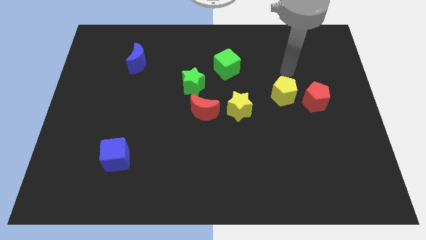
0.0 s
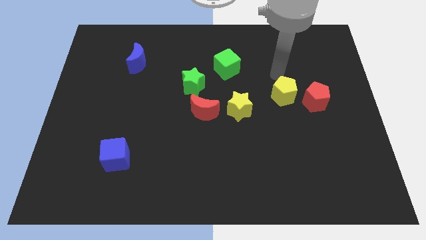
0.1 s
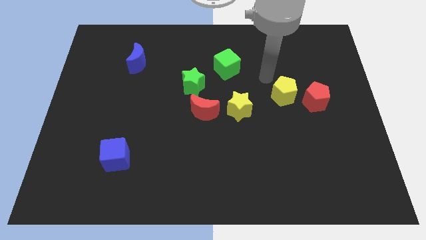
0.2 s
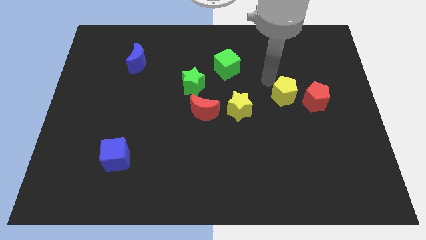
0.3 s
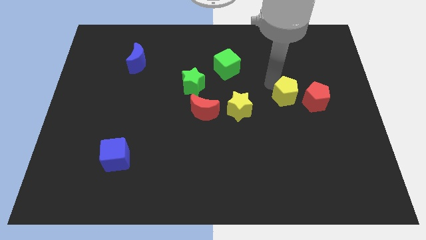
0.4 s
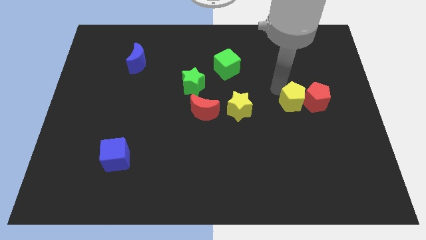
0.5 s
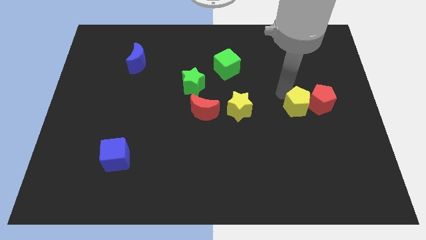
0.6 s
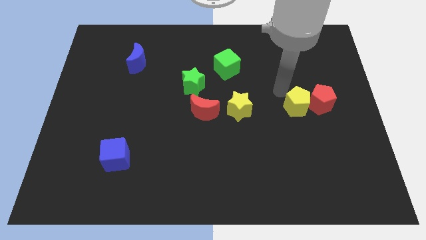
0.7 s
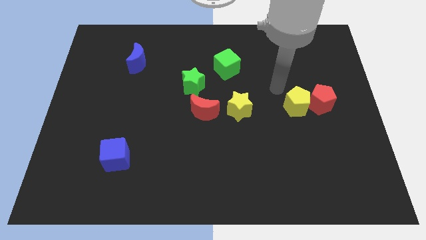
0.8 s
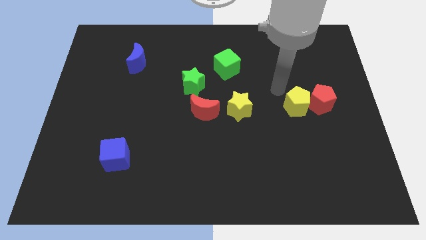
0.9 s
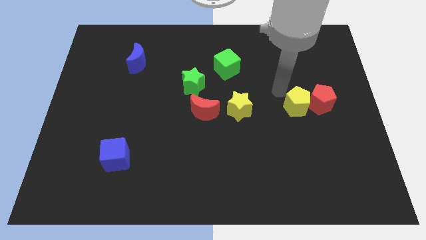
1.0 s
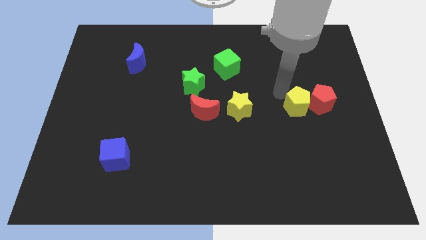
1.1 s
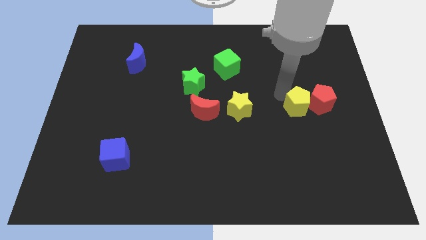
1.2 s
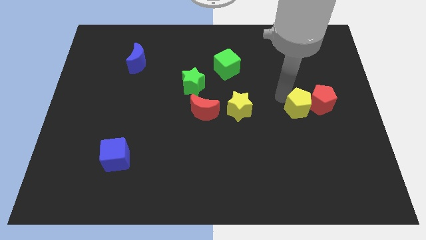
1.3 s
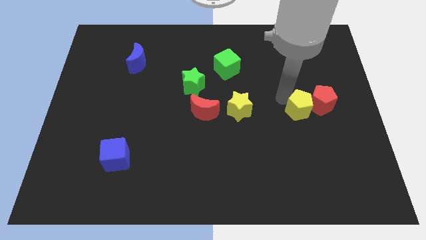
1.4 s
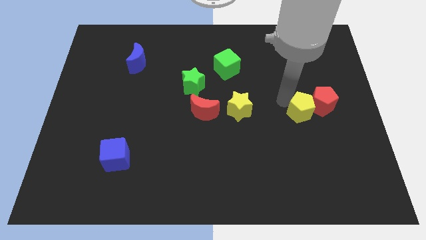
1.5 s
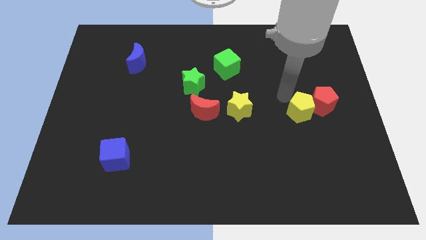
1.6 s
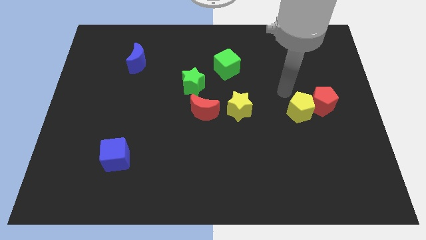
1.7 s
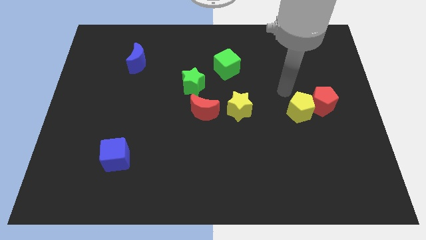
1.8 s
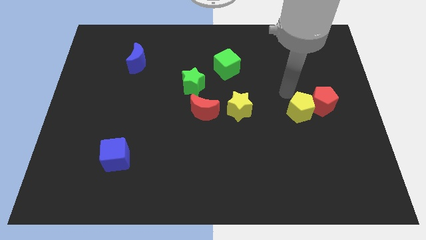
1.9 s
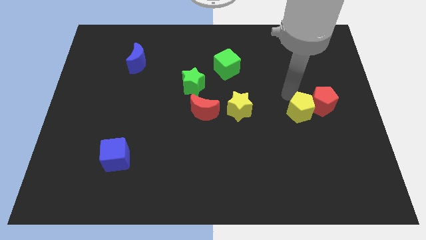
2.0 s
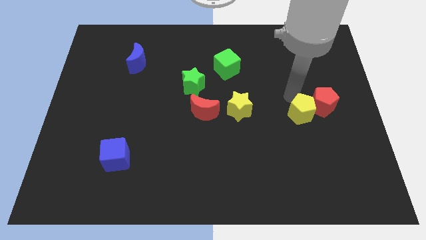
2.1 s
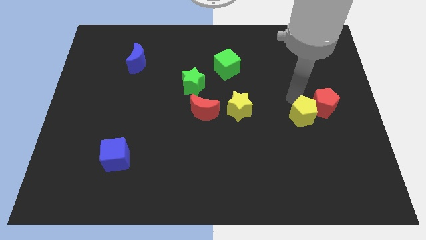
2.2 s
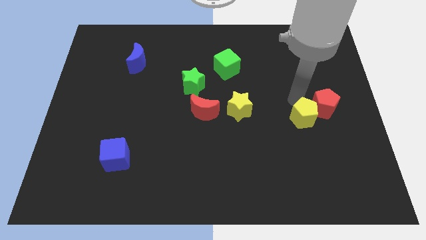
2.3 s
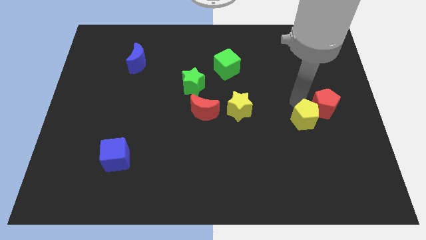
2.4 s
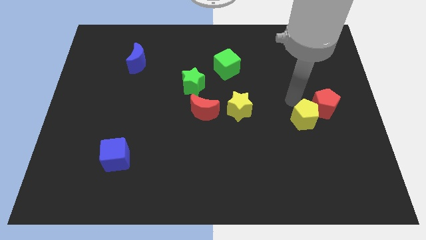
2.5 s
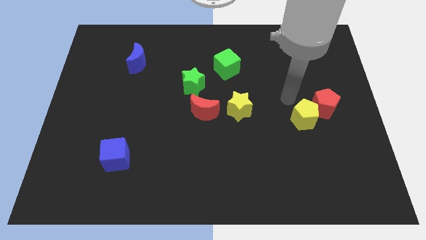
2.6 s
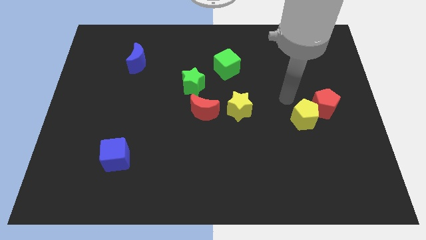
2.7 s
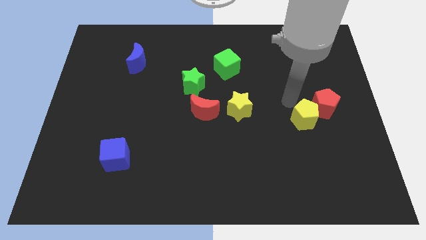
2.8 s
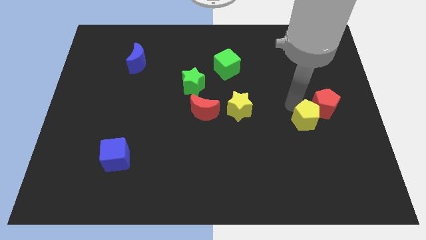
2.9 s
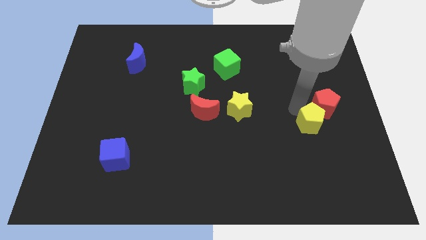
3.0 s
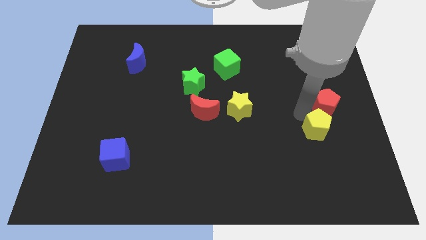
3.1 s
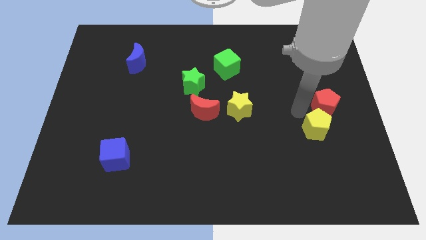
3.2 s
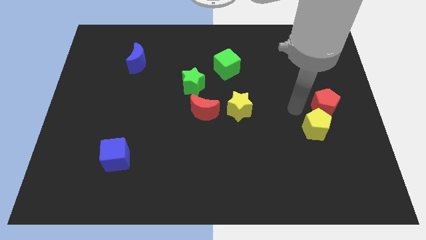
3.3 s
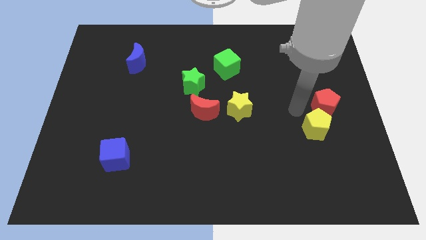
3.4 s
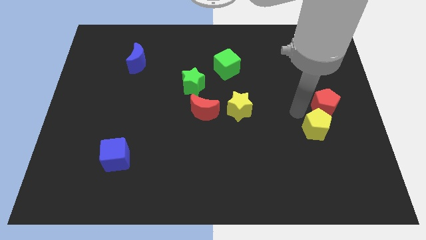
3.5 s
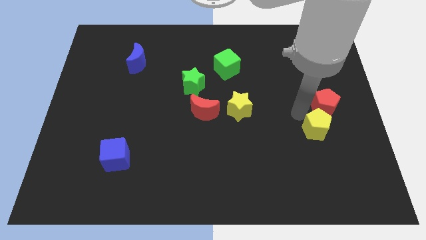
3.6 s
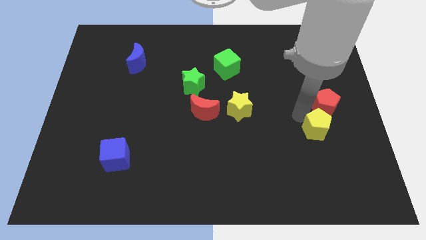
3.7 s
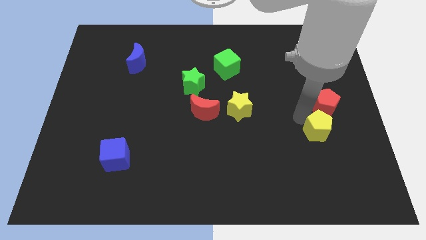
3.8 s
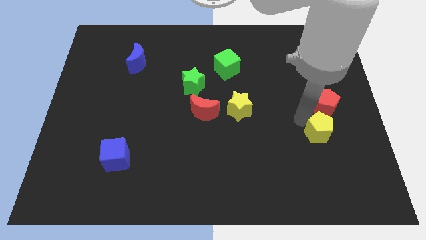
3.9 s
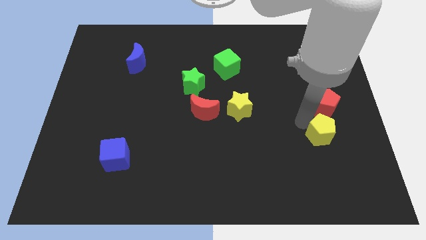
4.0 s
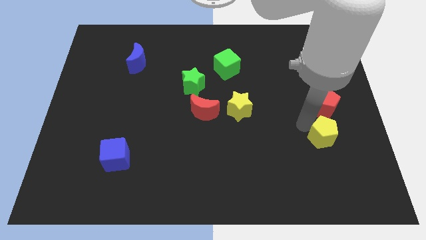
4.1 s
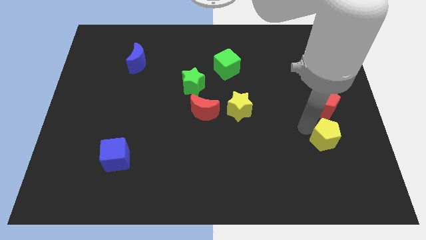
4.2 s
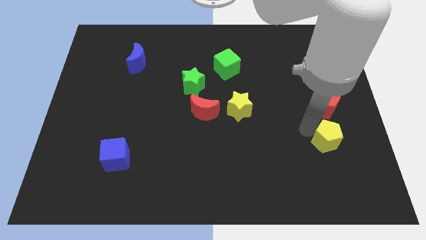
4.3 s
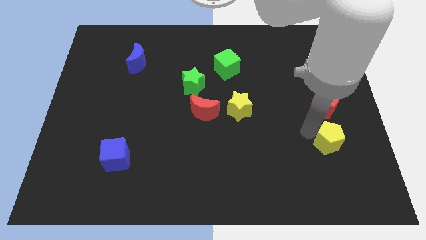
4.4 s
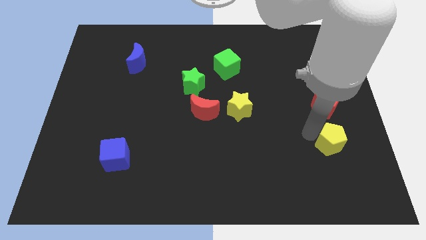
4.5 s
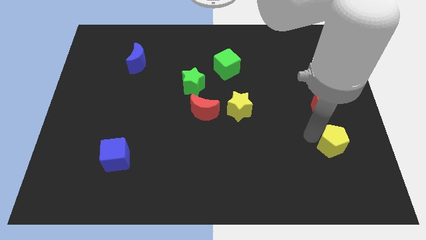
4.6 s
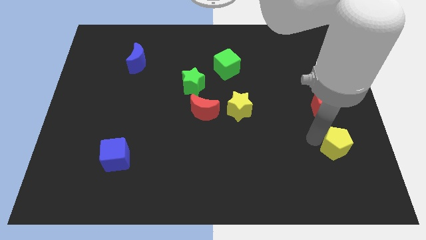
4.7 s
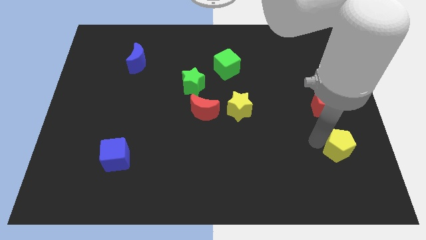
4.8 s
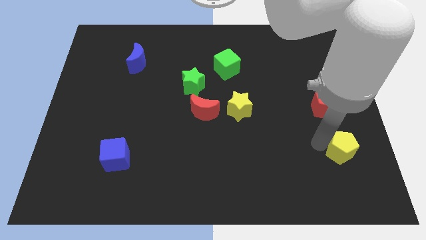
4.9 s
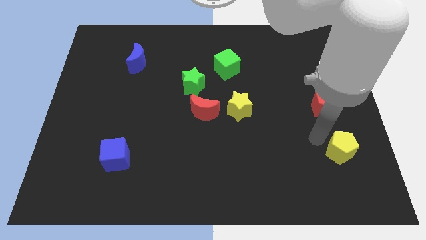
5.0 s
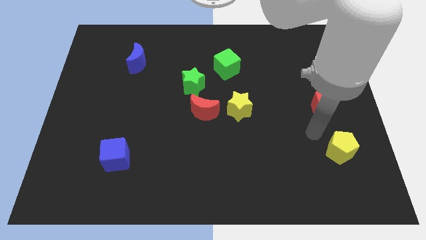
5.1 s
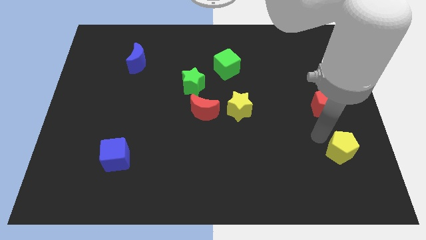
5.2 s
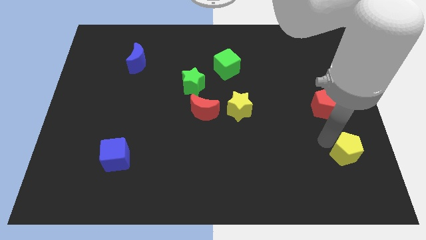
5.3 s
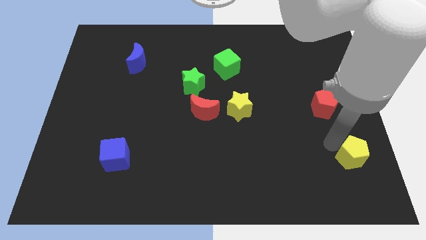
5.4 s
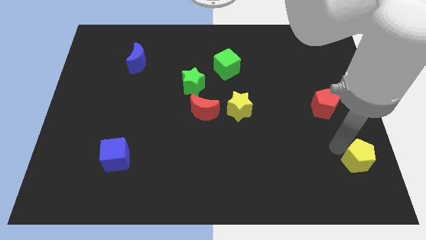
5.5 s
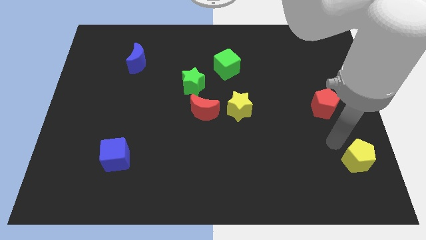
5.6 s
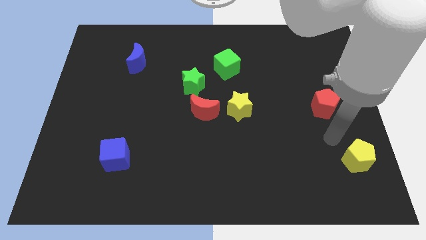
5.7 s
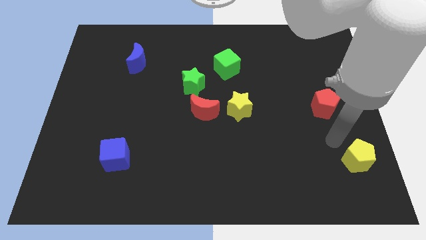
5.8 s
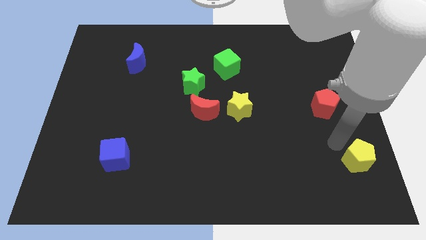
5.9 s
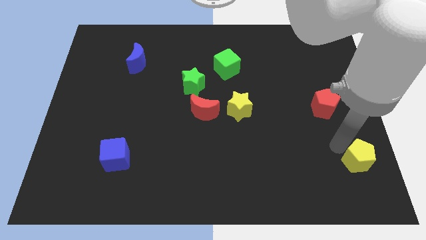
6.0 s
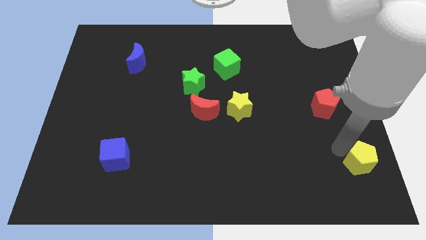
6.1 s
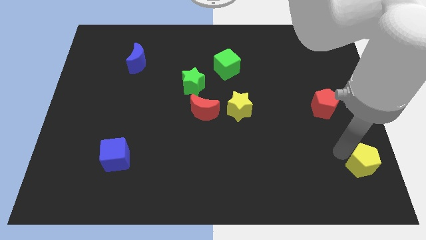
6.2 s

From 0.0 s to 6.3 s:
put the yellow pentagon to the bottom right of the board
